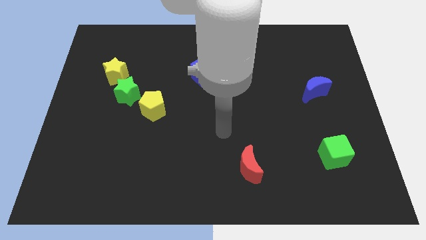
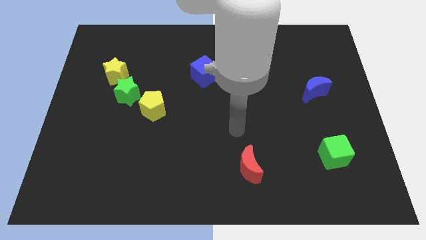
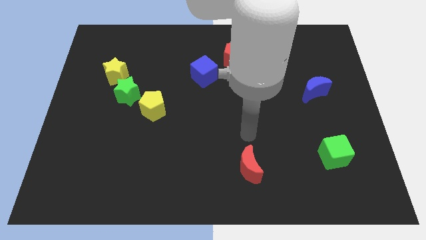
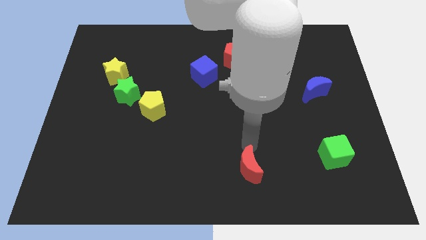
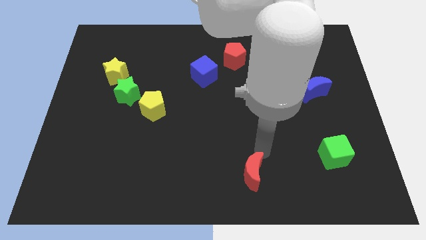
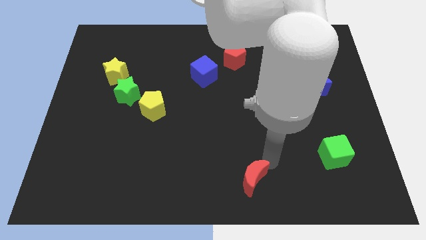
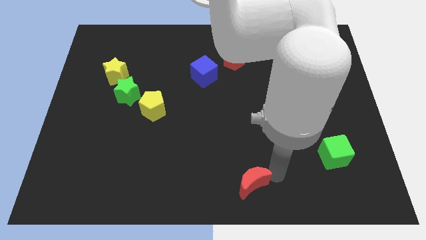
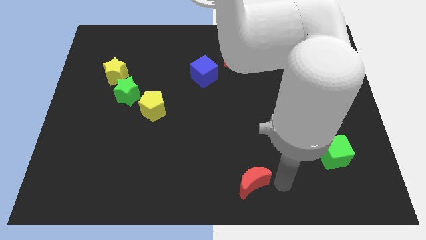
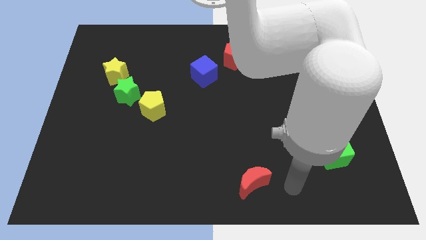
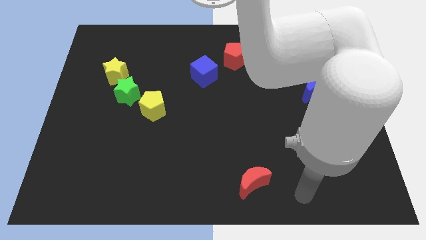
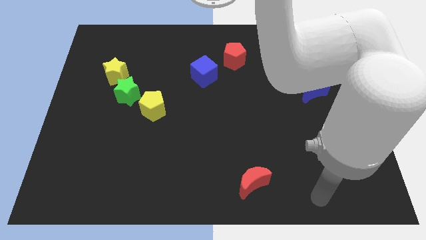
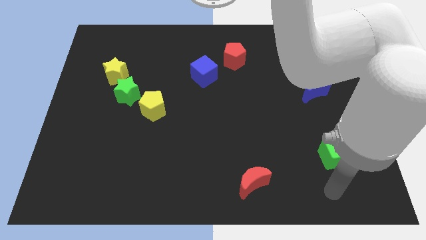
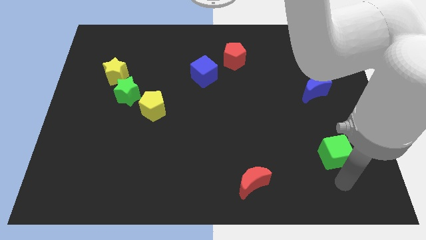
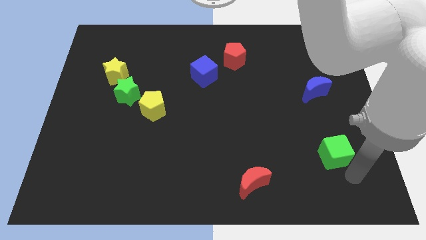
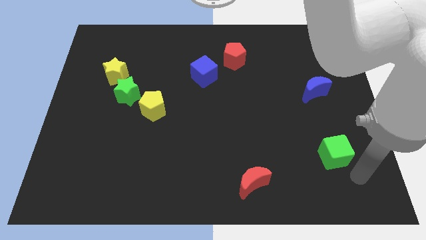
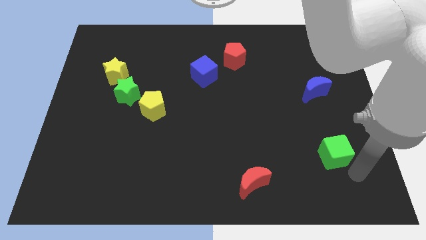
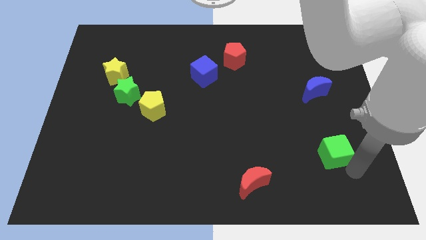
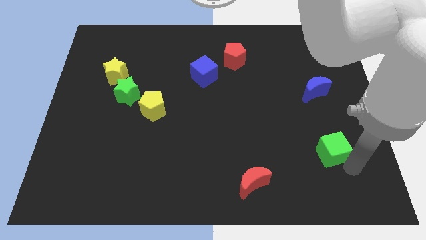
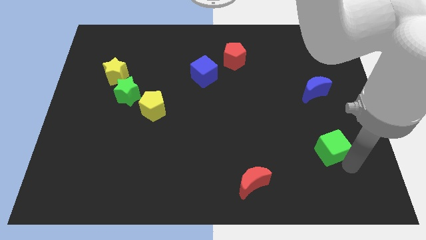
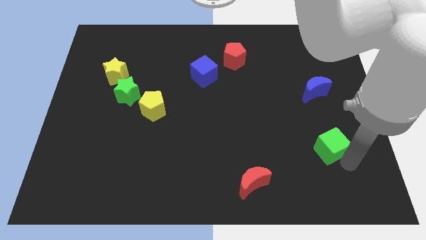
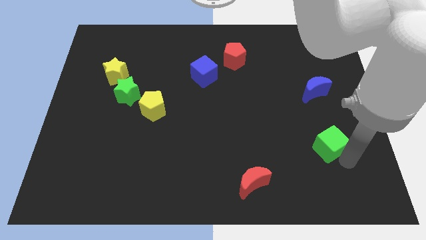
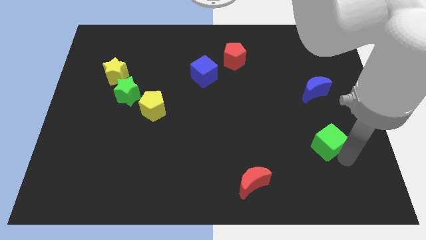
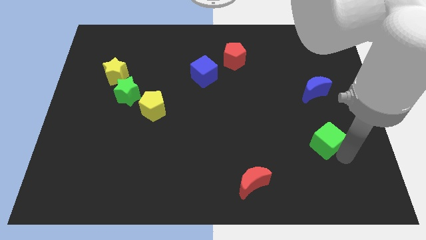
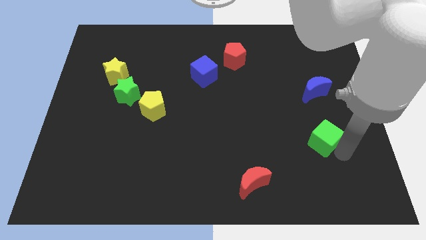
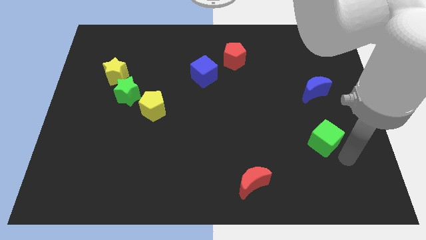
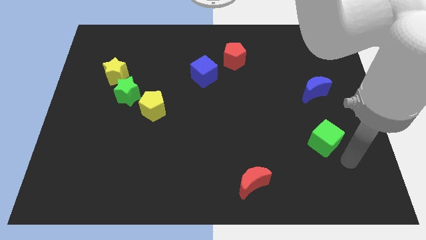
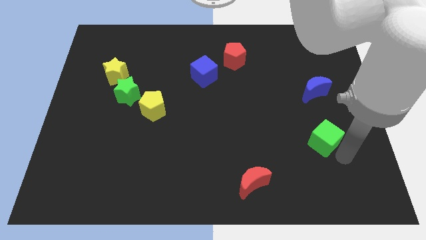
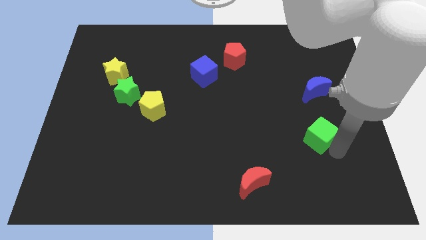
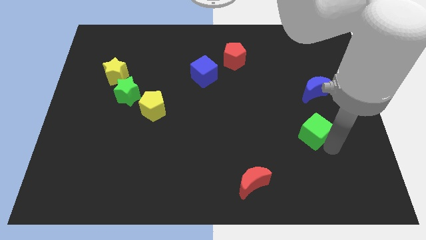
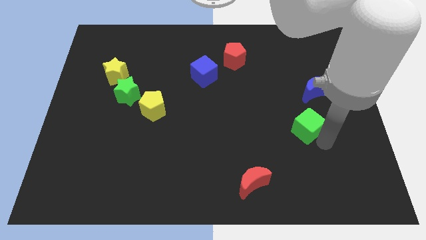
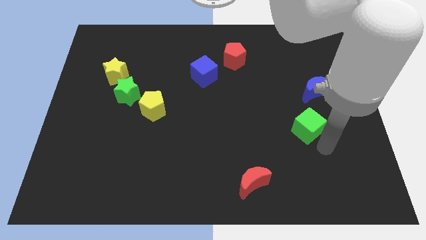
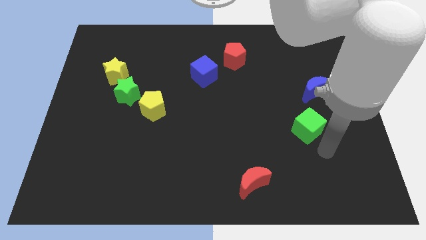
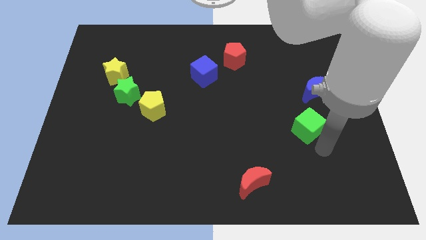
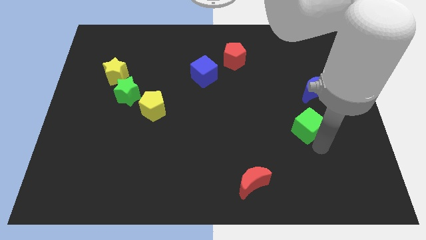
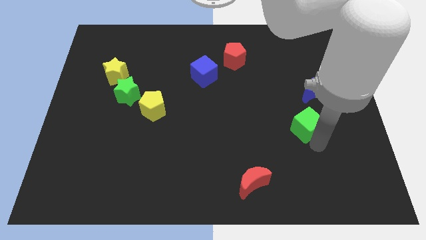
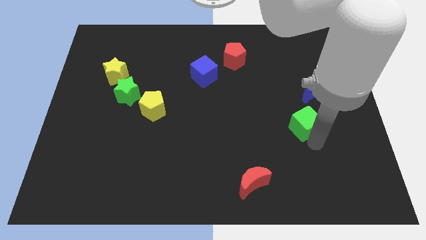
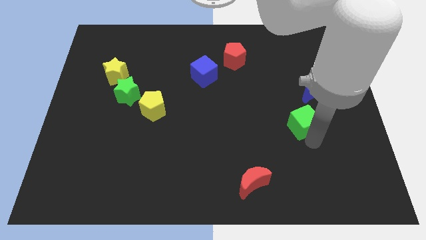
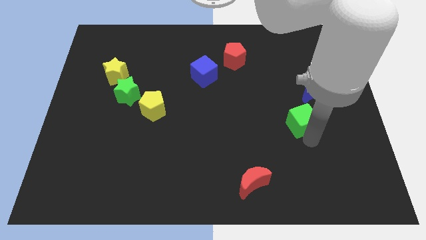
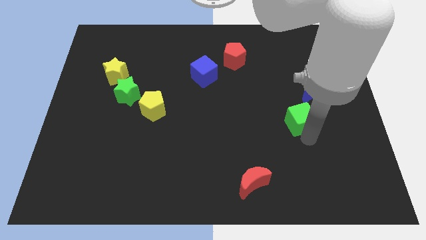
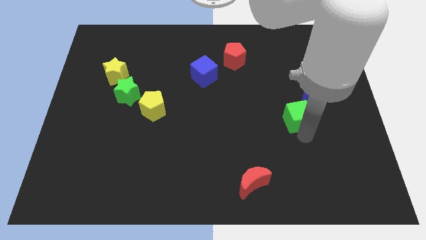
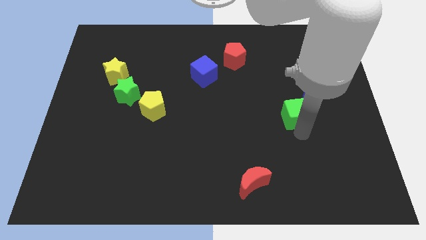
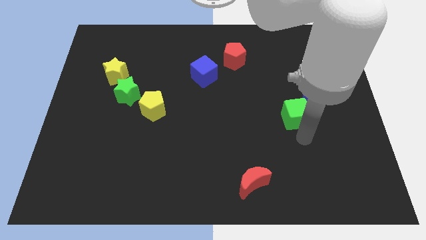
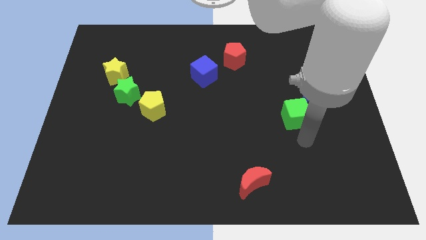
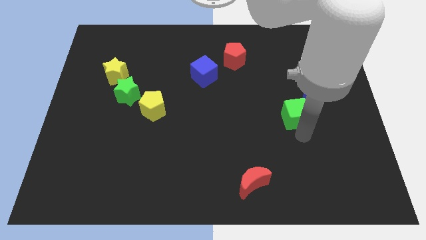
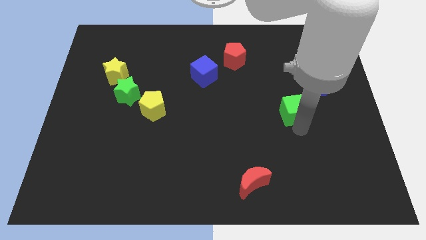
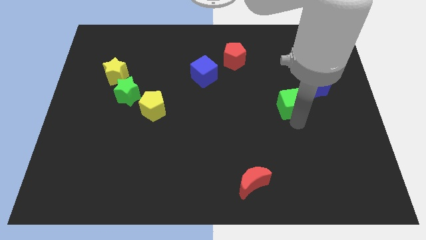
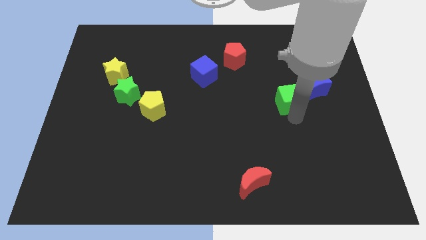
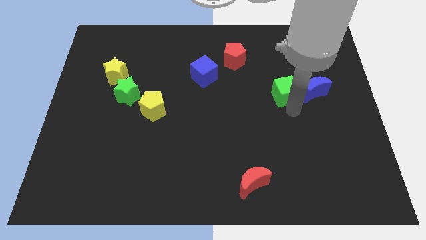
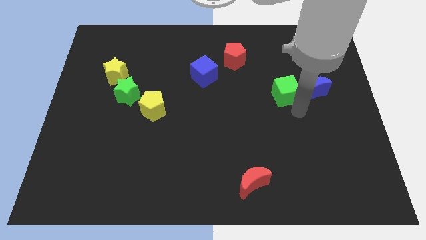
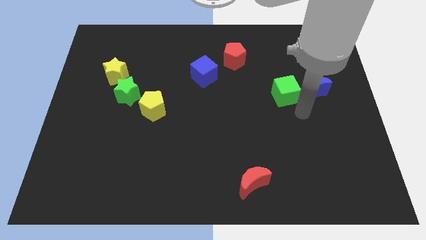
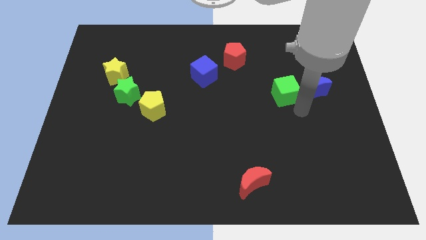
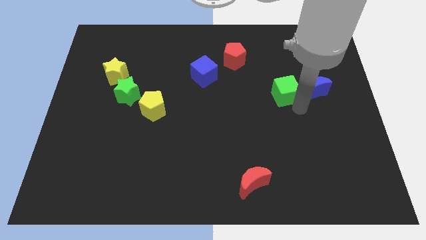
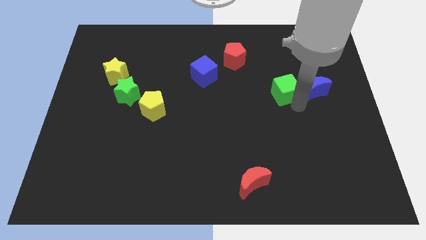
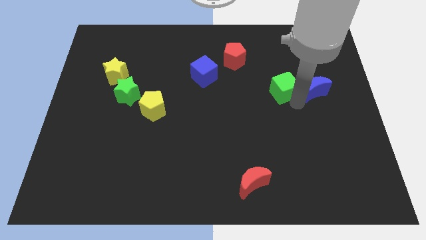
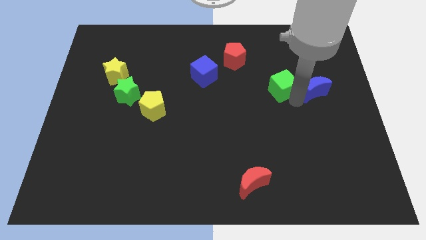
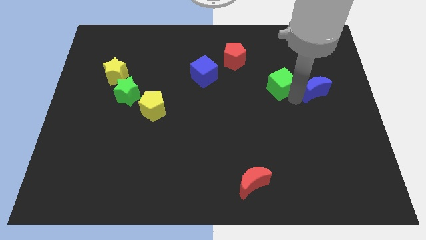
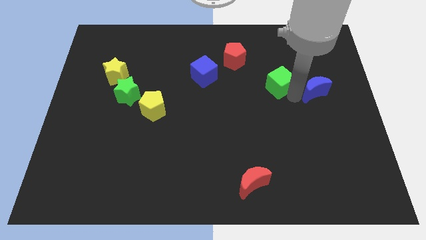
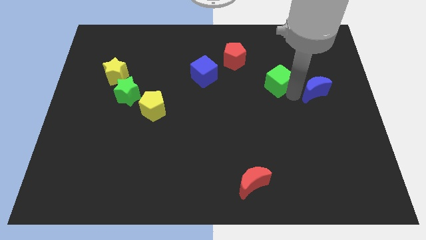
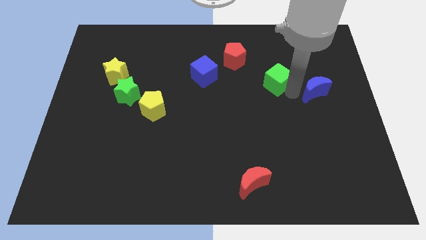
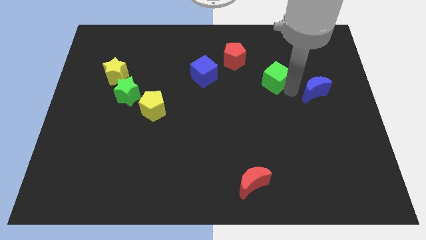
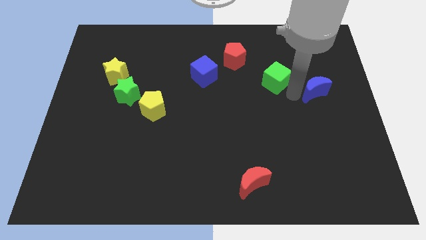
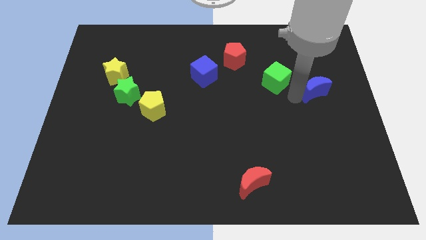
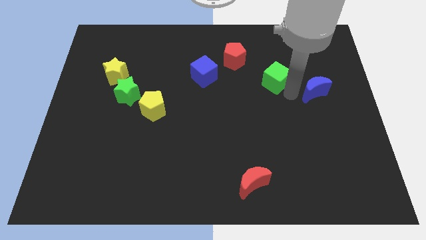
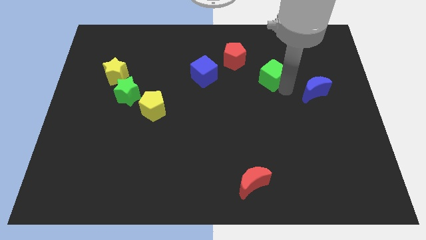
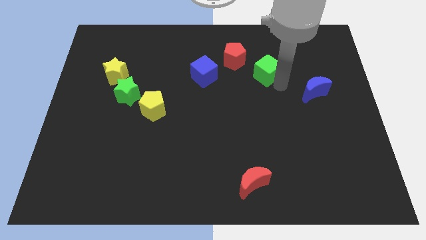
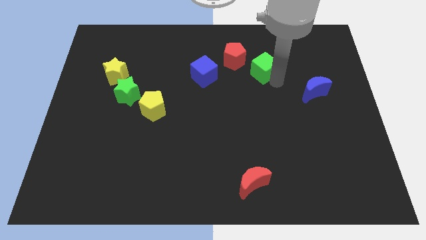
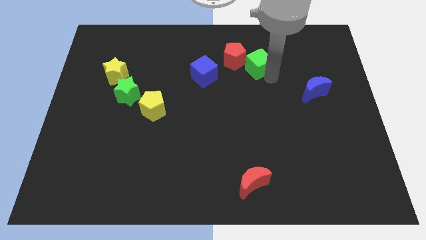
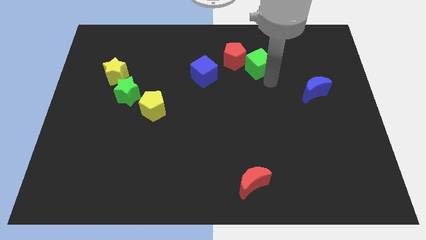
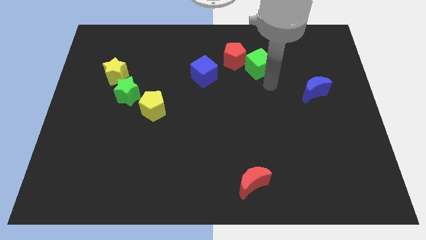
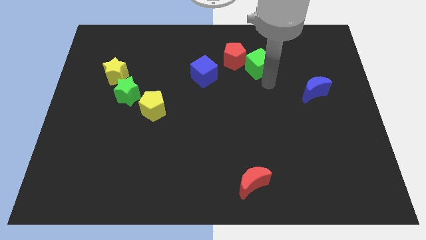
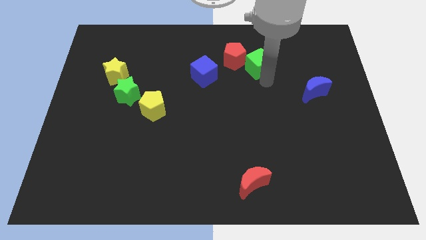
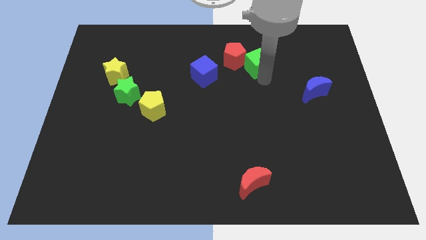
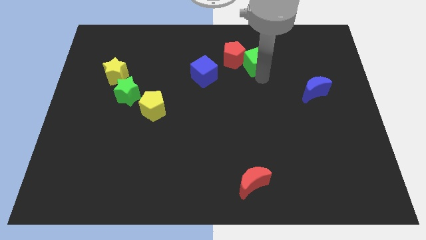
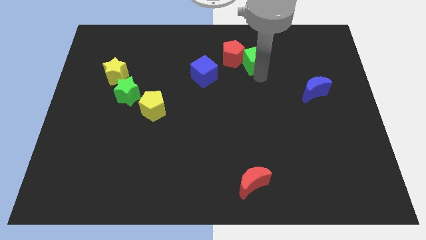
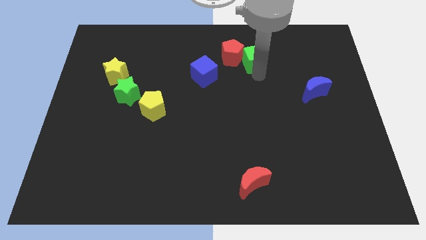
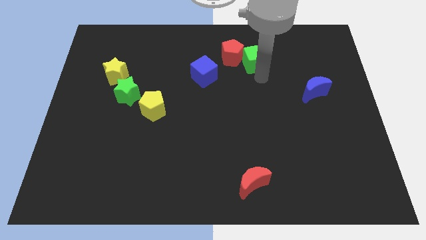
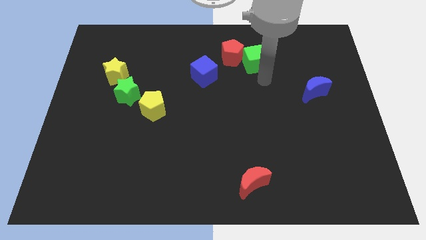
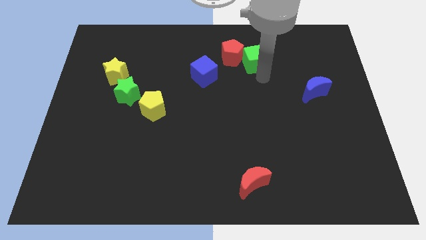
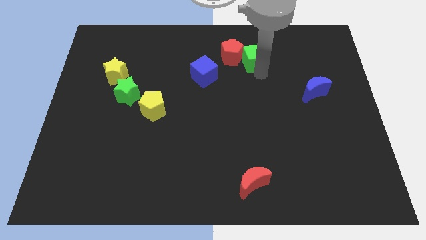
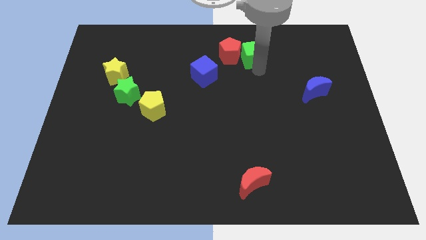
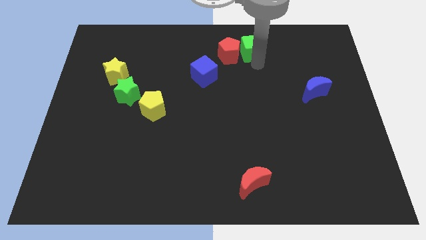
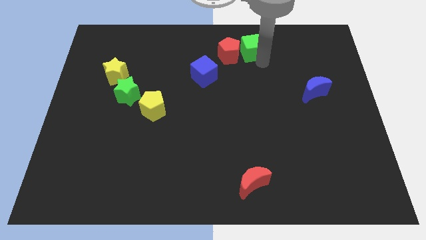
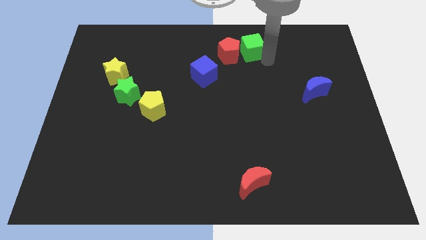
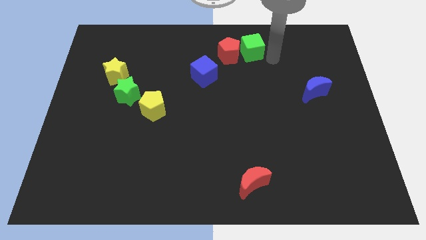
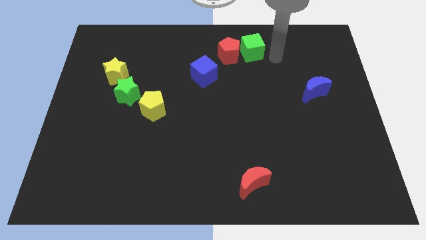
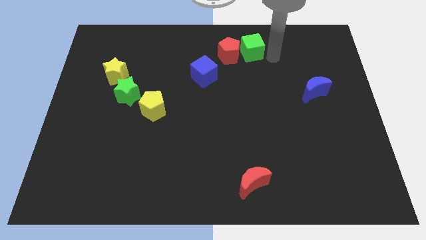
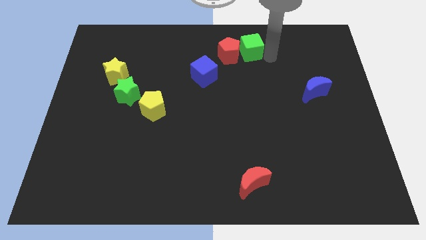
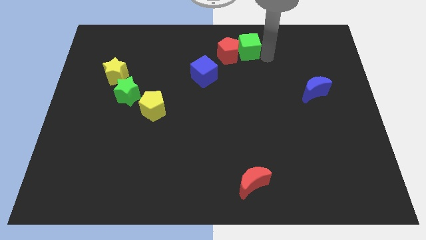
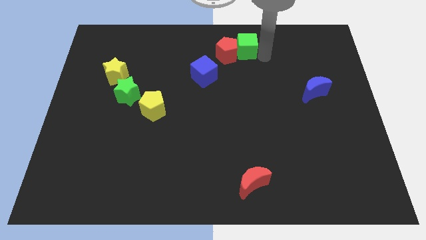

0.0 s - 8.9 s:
put the green cube to the top
